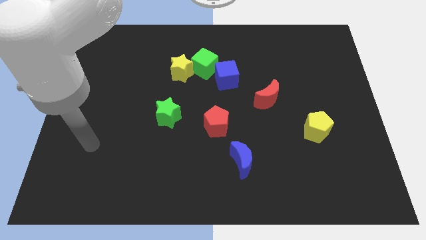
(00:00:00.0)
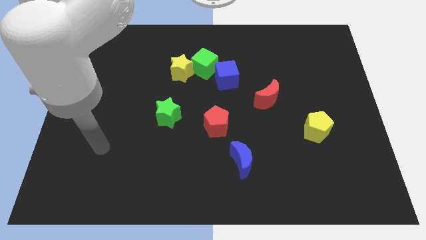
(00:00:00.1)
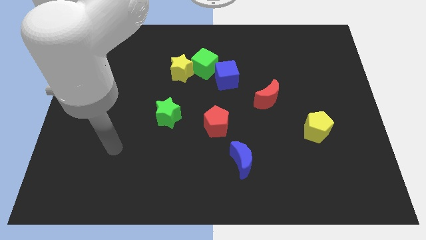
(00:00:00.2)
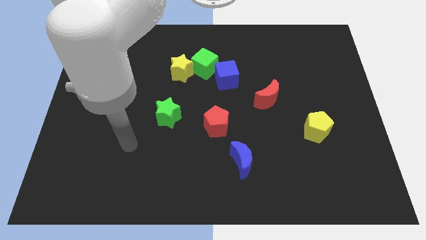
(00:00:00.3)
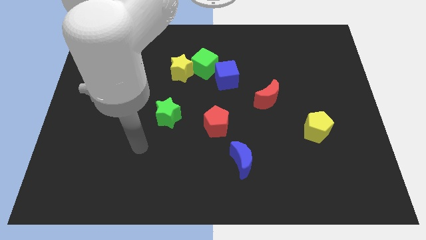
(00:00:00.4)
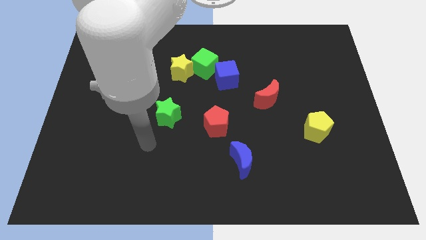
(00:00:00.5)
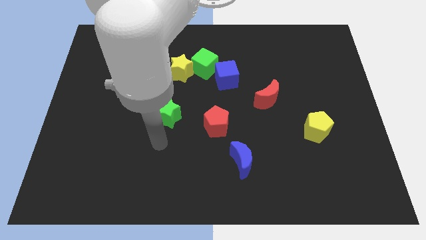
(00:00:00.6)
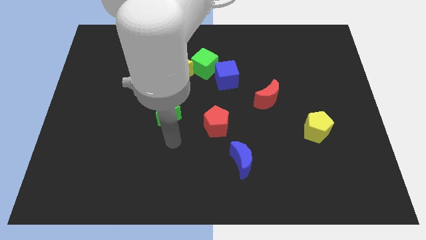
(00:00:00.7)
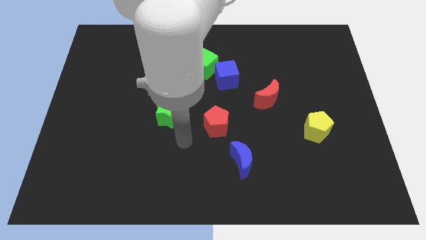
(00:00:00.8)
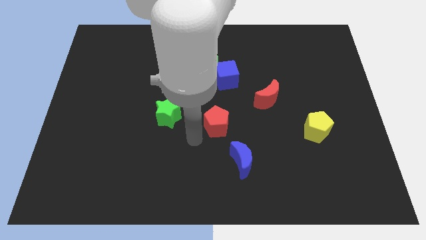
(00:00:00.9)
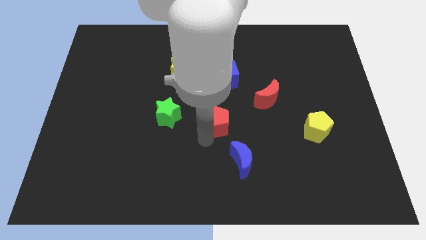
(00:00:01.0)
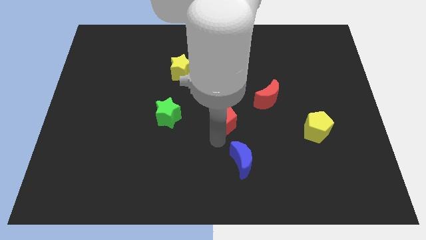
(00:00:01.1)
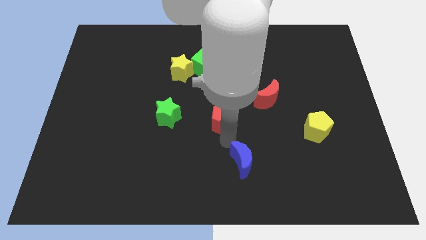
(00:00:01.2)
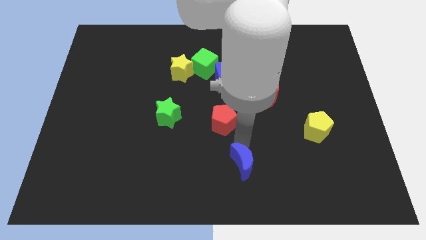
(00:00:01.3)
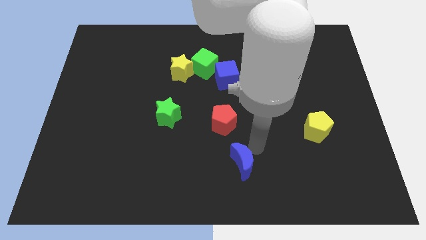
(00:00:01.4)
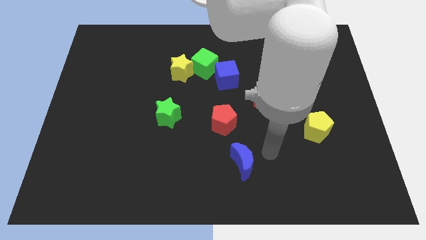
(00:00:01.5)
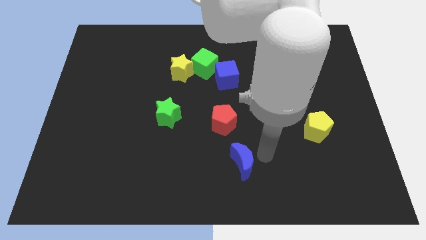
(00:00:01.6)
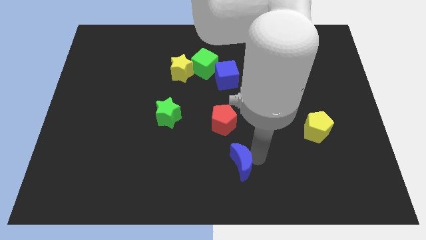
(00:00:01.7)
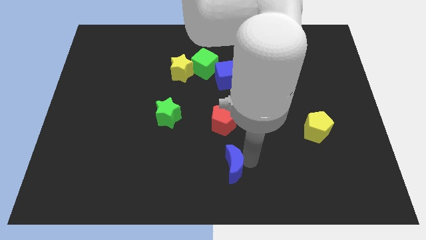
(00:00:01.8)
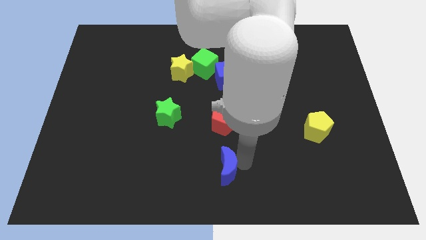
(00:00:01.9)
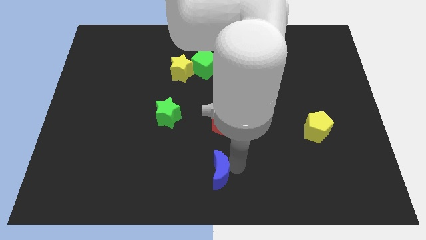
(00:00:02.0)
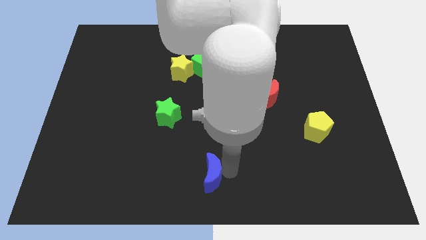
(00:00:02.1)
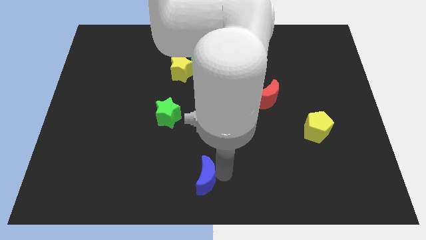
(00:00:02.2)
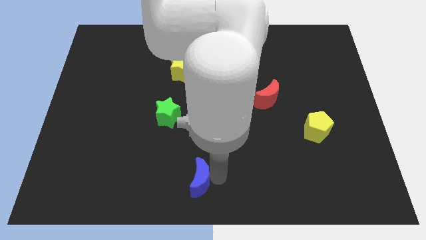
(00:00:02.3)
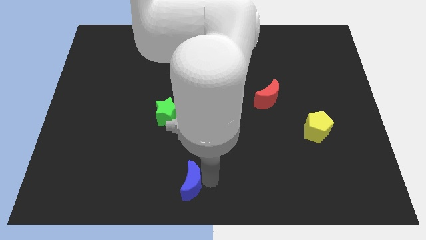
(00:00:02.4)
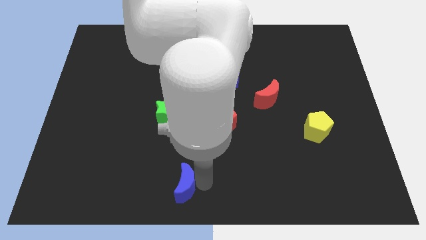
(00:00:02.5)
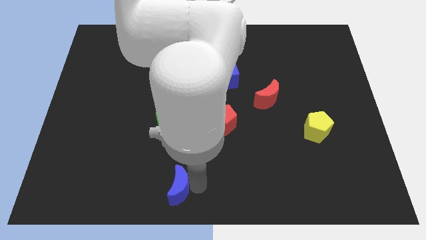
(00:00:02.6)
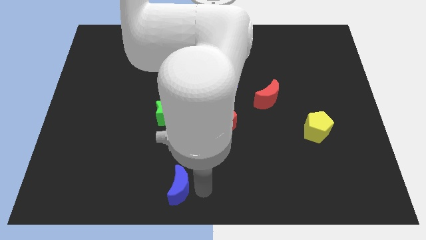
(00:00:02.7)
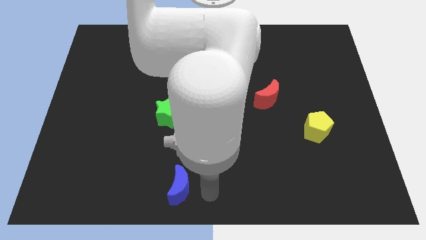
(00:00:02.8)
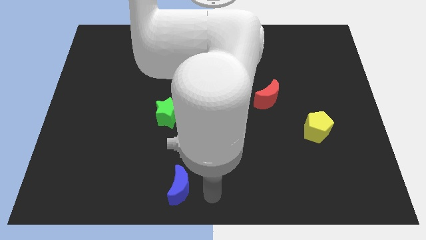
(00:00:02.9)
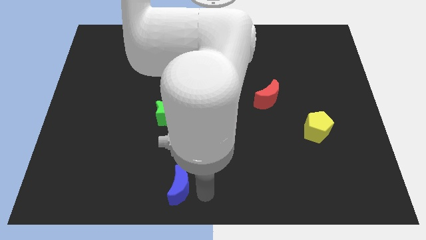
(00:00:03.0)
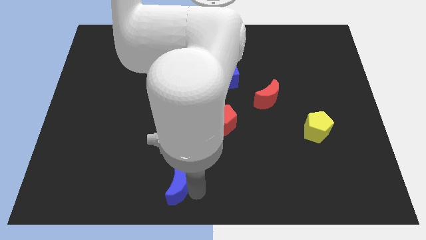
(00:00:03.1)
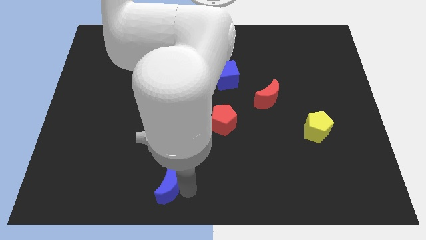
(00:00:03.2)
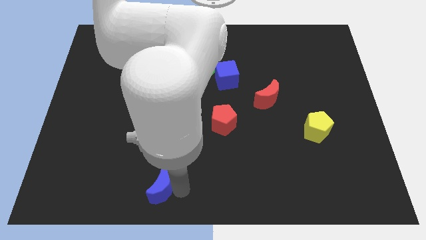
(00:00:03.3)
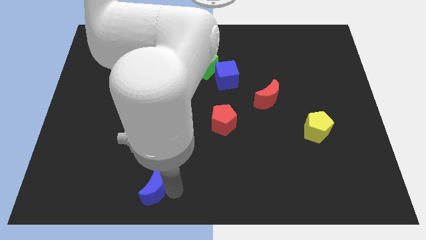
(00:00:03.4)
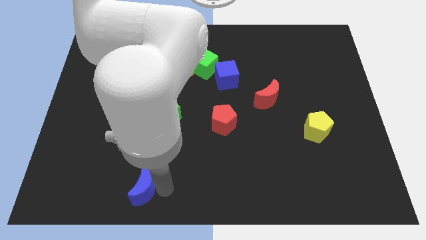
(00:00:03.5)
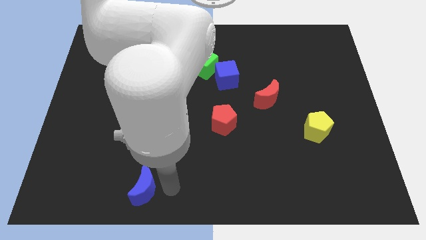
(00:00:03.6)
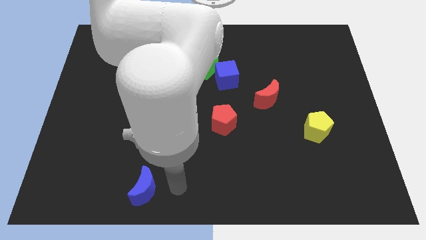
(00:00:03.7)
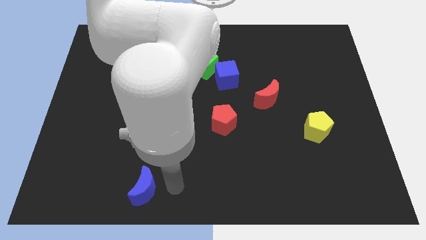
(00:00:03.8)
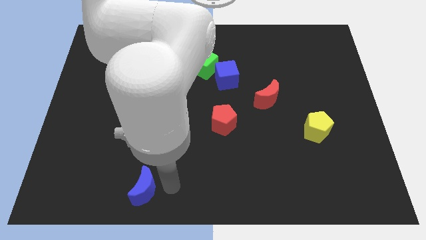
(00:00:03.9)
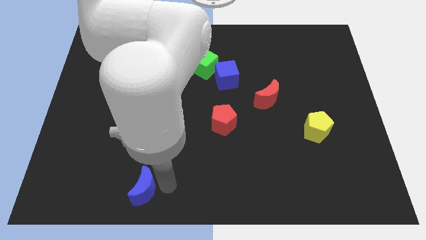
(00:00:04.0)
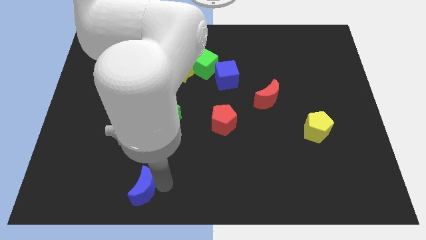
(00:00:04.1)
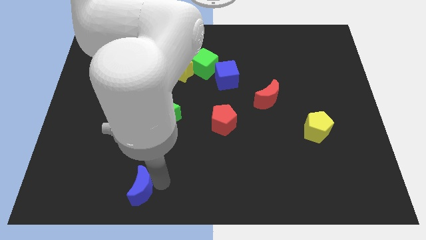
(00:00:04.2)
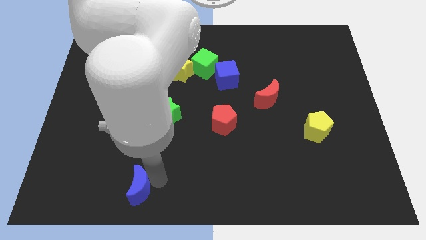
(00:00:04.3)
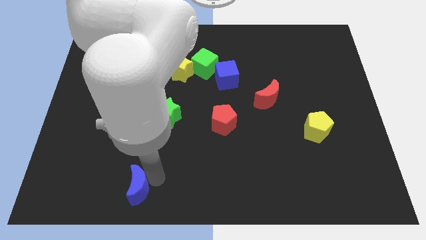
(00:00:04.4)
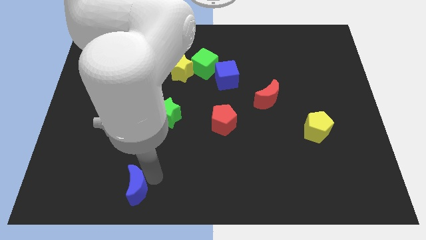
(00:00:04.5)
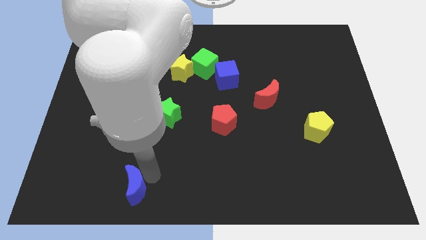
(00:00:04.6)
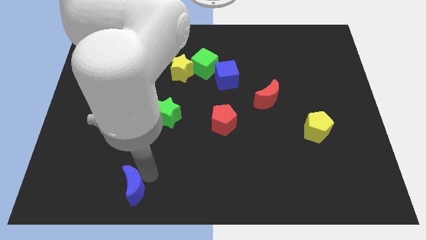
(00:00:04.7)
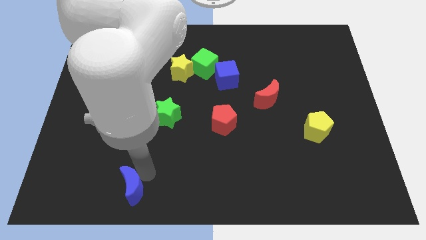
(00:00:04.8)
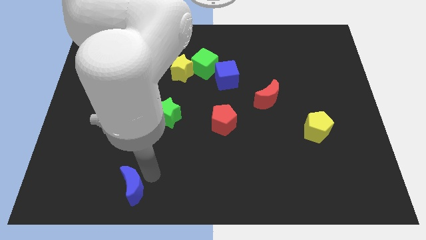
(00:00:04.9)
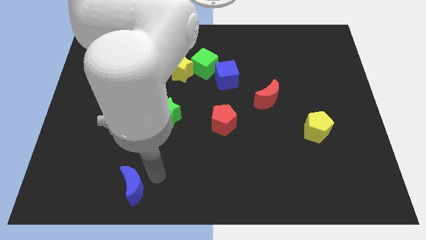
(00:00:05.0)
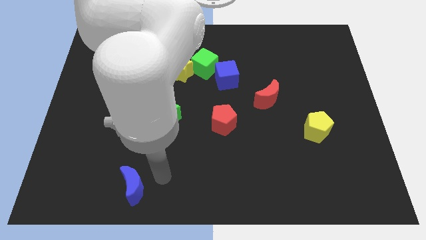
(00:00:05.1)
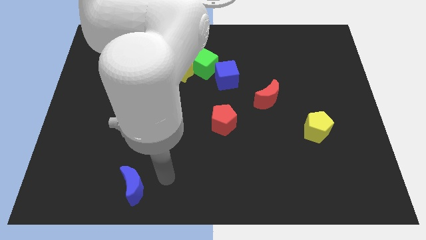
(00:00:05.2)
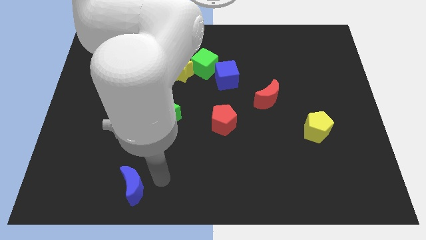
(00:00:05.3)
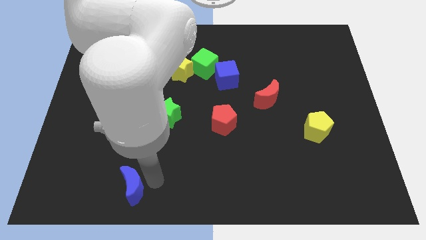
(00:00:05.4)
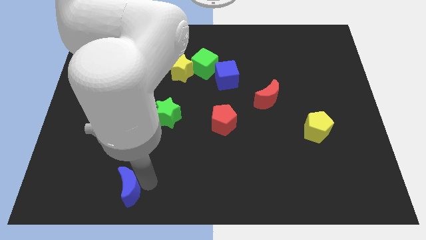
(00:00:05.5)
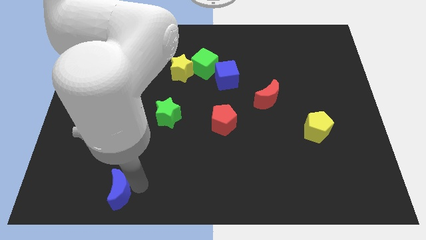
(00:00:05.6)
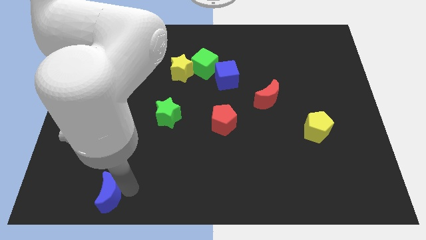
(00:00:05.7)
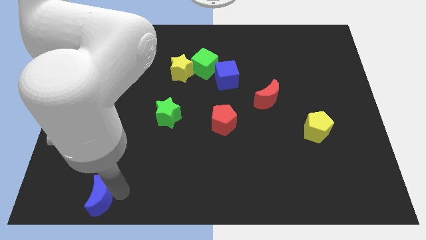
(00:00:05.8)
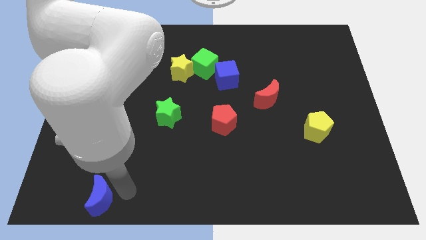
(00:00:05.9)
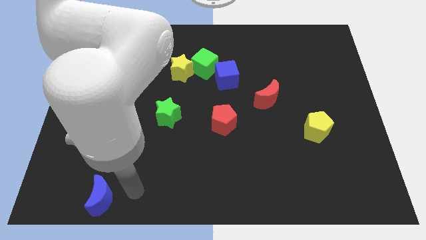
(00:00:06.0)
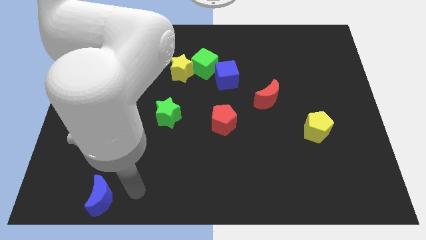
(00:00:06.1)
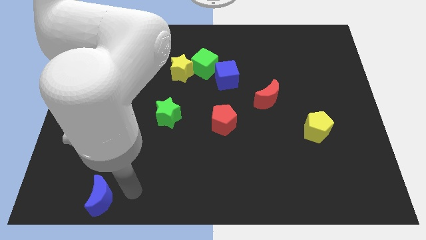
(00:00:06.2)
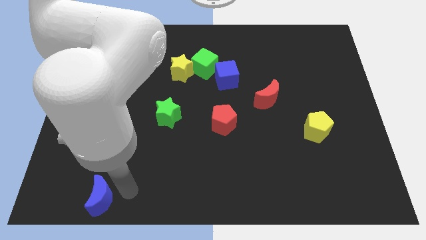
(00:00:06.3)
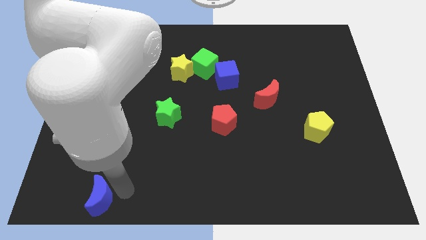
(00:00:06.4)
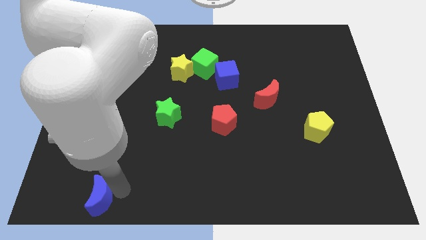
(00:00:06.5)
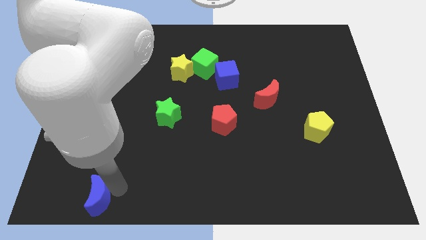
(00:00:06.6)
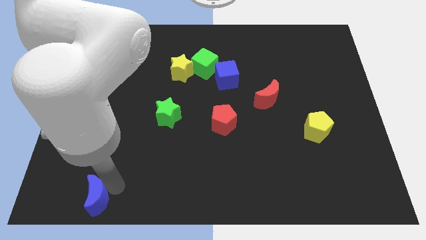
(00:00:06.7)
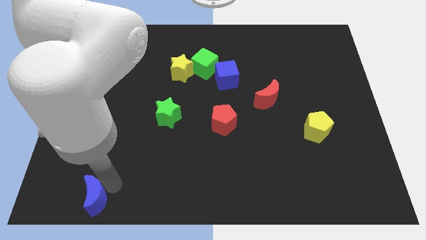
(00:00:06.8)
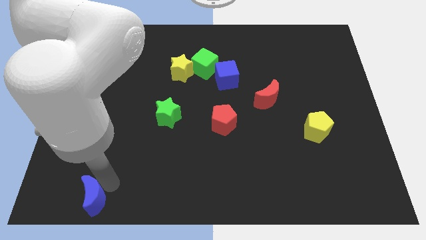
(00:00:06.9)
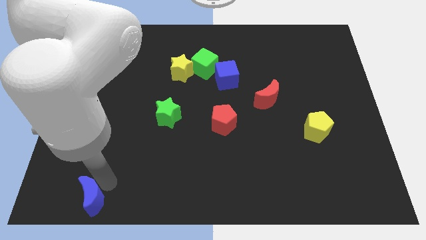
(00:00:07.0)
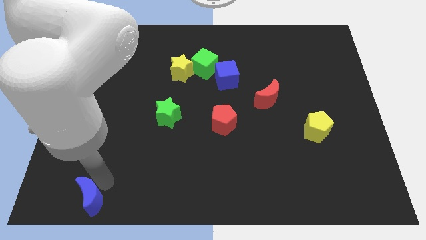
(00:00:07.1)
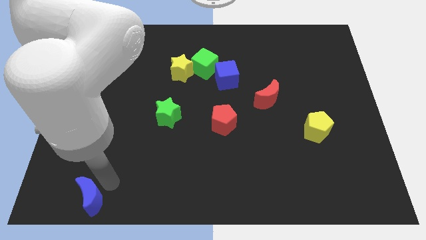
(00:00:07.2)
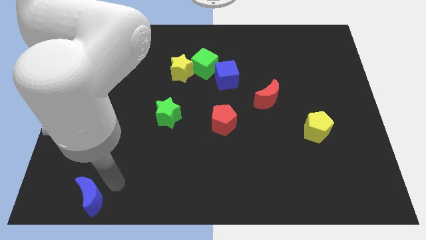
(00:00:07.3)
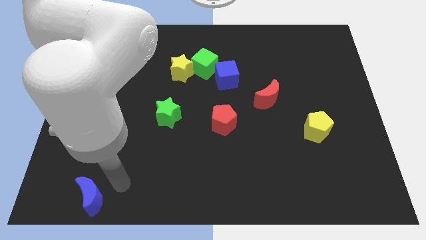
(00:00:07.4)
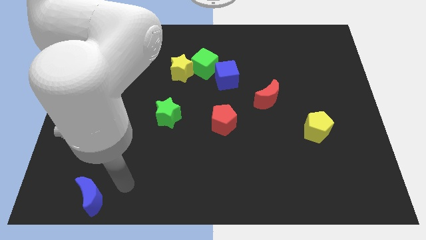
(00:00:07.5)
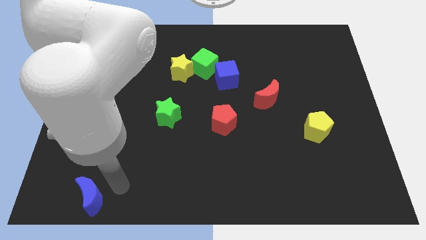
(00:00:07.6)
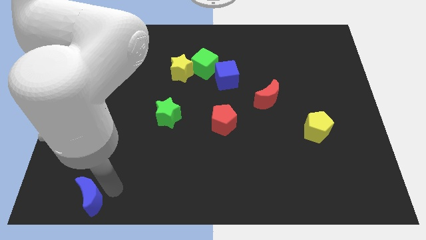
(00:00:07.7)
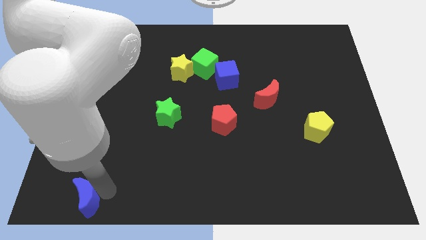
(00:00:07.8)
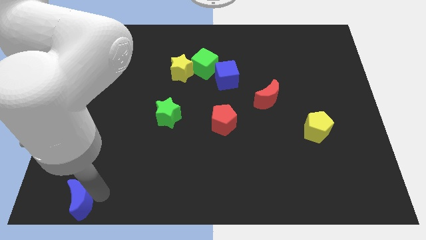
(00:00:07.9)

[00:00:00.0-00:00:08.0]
put the blue moon to the bottom left corner
